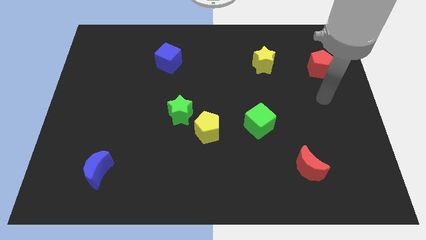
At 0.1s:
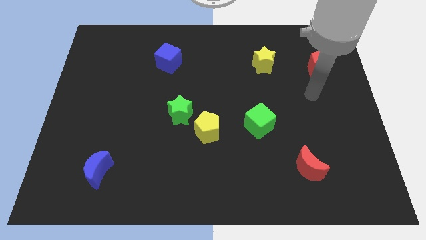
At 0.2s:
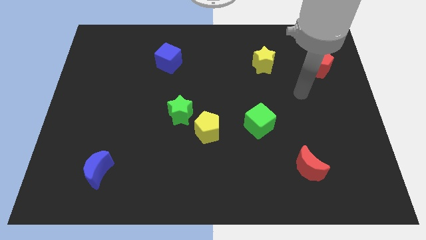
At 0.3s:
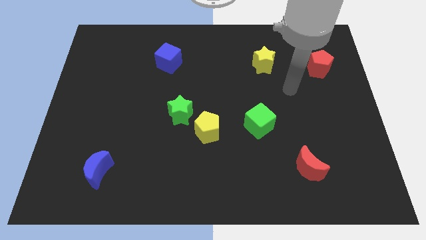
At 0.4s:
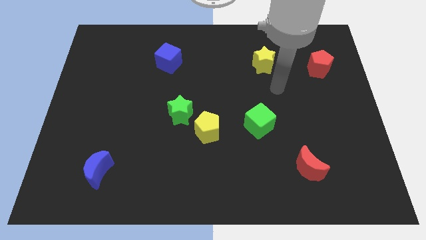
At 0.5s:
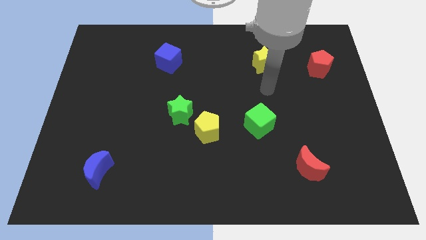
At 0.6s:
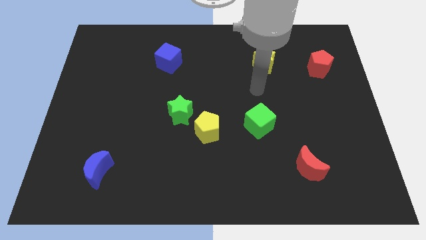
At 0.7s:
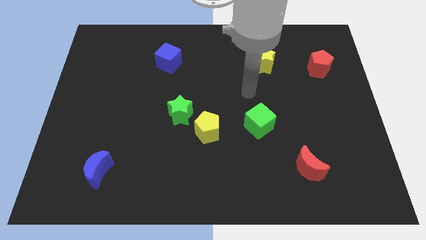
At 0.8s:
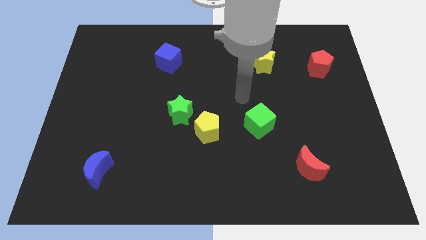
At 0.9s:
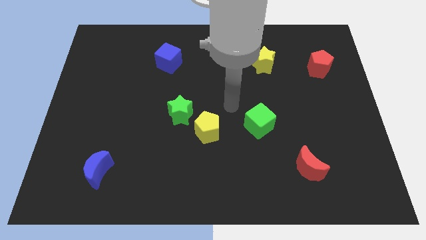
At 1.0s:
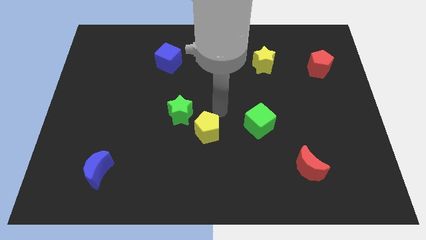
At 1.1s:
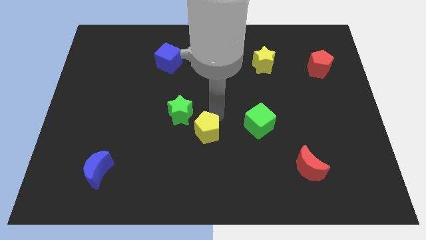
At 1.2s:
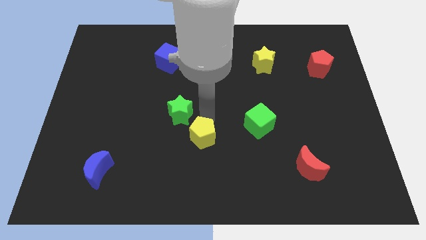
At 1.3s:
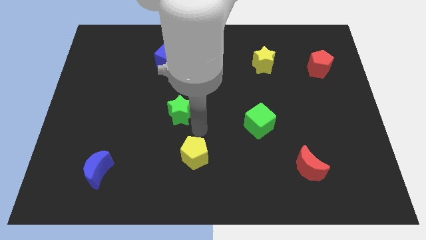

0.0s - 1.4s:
move the green star away from the yellow pentagon

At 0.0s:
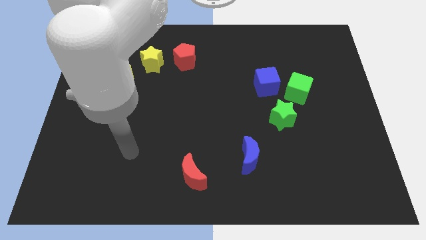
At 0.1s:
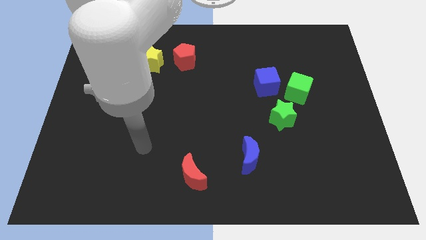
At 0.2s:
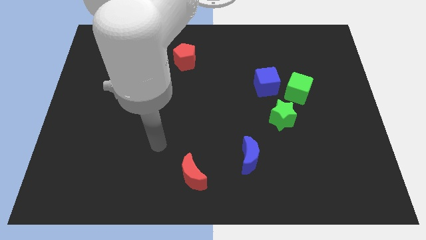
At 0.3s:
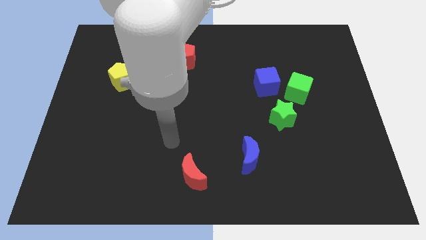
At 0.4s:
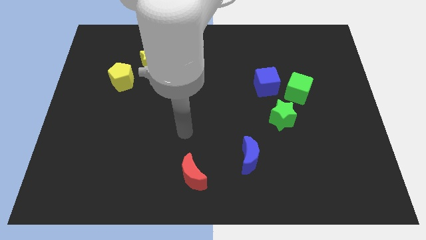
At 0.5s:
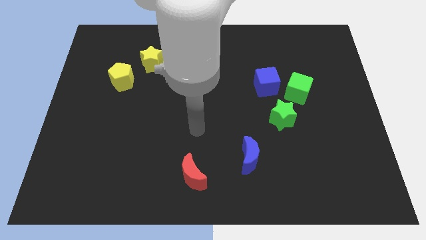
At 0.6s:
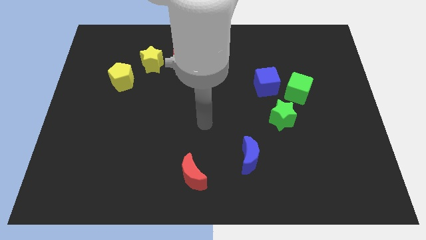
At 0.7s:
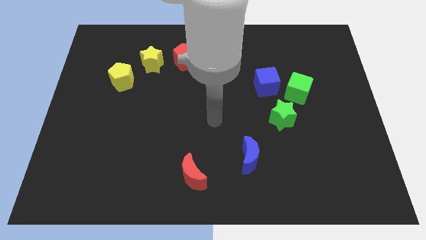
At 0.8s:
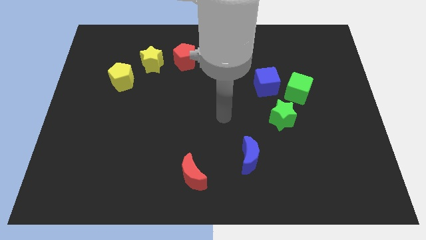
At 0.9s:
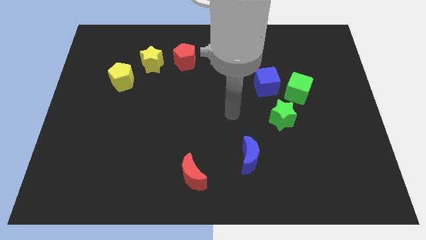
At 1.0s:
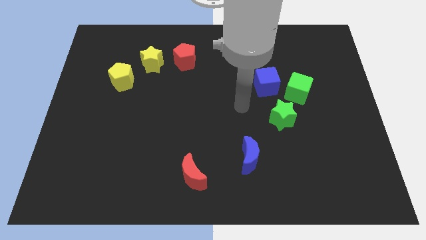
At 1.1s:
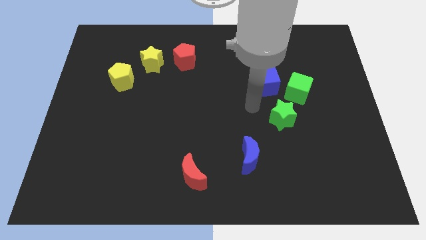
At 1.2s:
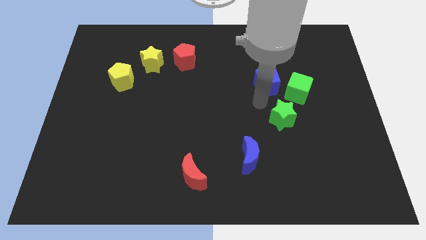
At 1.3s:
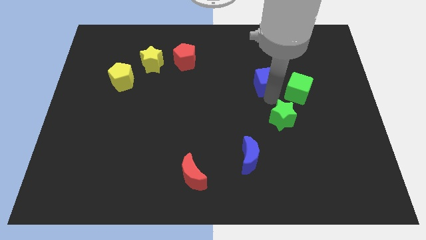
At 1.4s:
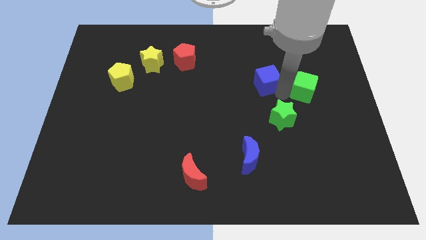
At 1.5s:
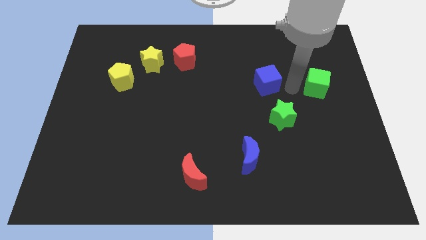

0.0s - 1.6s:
separate the blue cube from the green cube

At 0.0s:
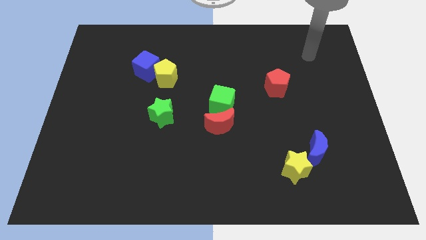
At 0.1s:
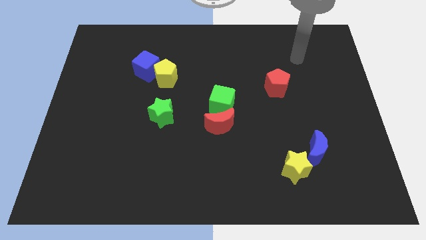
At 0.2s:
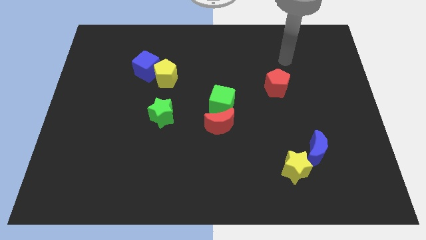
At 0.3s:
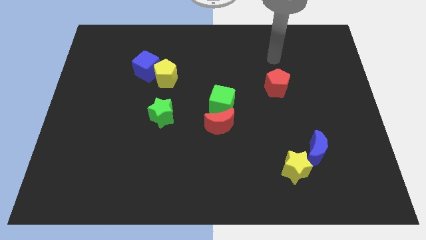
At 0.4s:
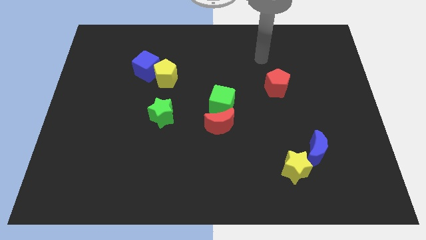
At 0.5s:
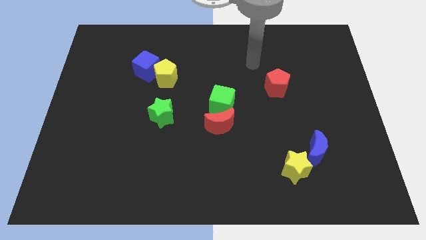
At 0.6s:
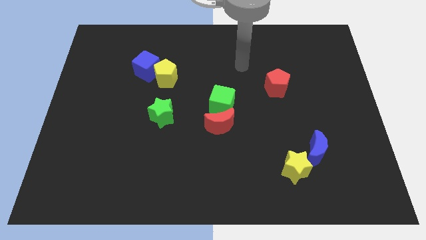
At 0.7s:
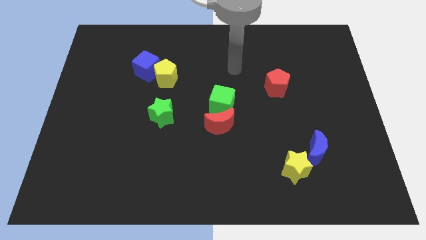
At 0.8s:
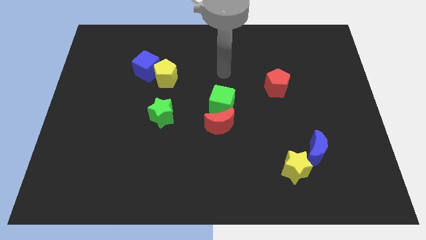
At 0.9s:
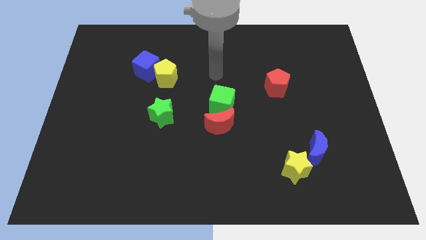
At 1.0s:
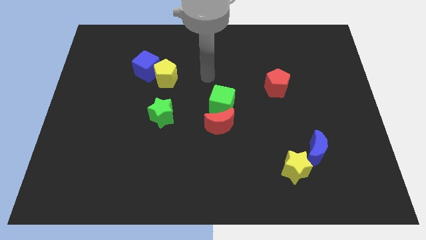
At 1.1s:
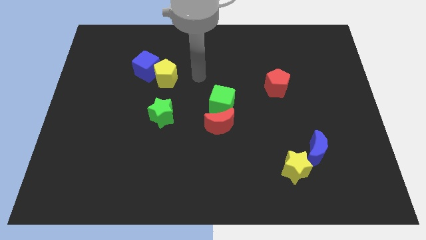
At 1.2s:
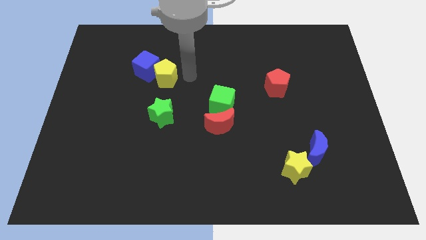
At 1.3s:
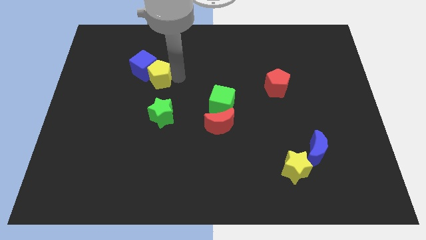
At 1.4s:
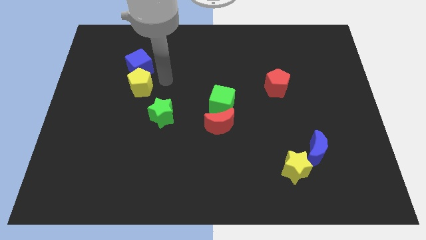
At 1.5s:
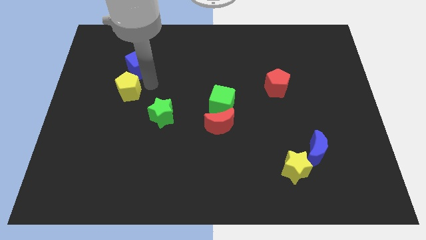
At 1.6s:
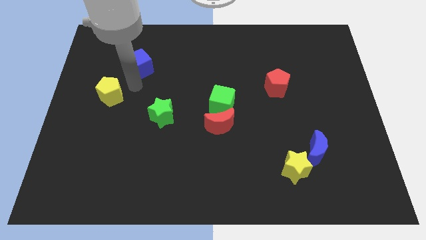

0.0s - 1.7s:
move the blue cube away from the yellow pentagon

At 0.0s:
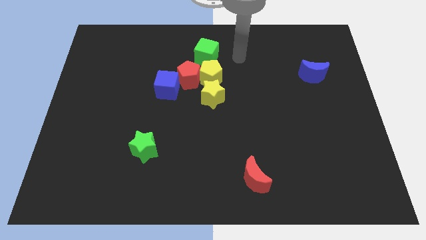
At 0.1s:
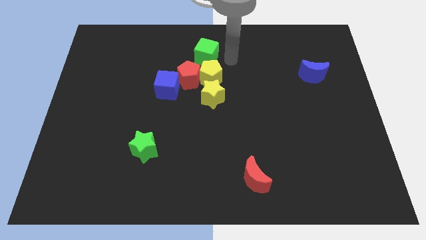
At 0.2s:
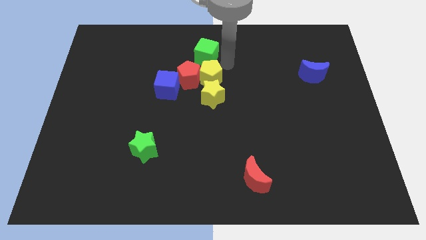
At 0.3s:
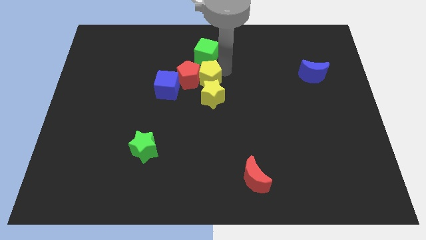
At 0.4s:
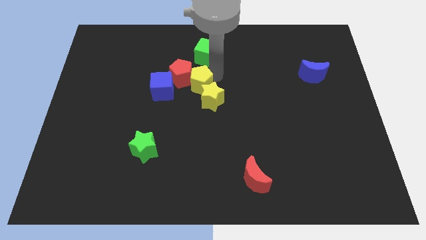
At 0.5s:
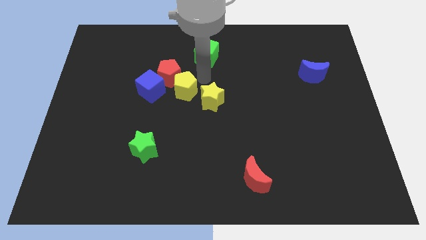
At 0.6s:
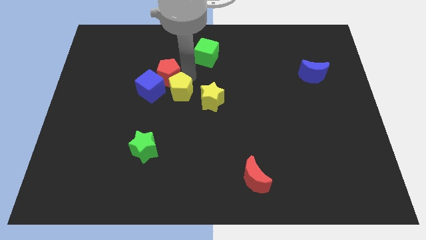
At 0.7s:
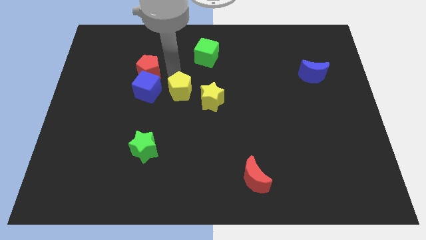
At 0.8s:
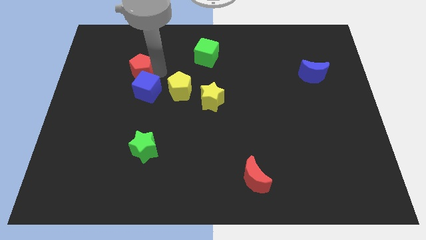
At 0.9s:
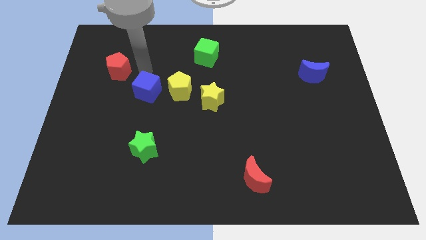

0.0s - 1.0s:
move the blue cube away from the red pentagon

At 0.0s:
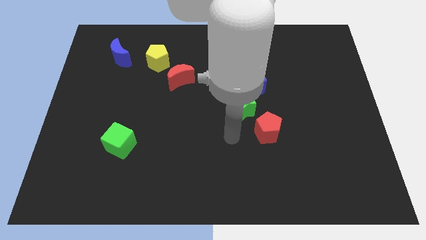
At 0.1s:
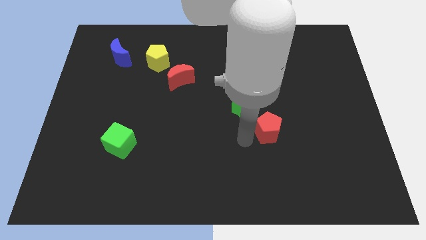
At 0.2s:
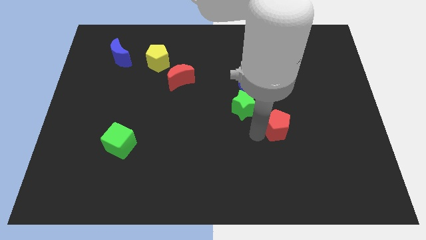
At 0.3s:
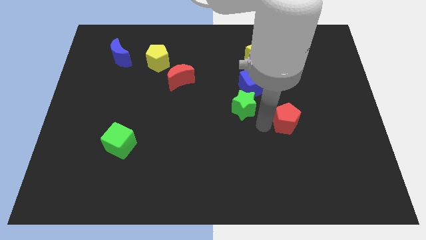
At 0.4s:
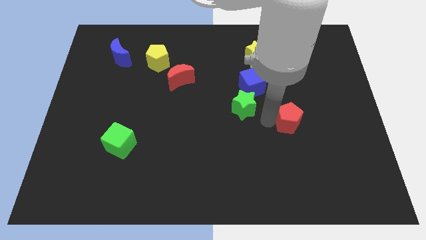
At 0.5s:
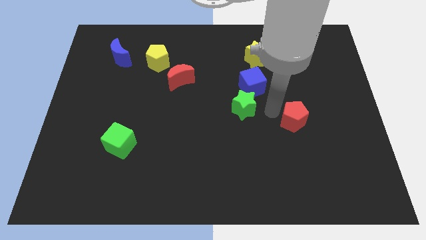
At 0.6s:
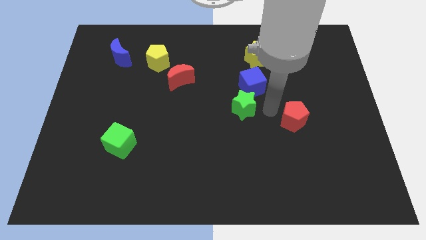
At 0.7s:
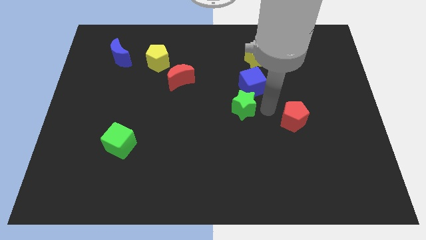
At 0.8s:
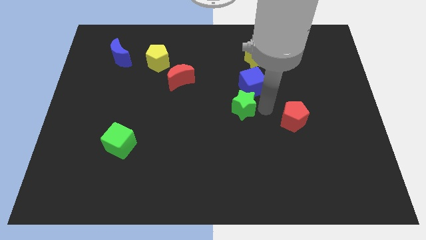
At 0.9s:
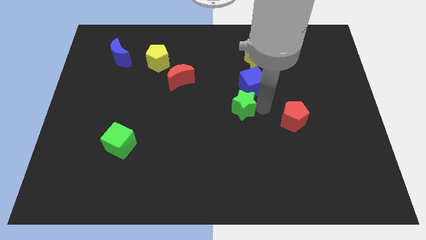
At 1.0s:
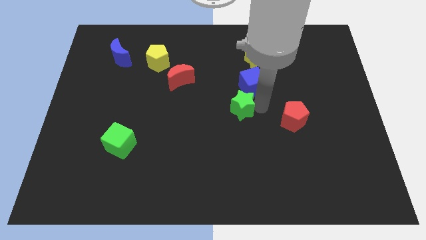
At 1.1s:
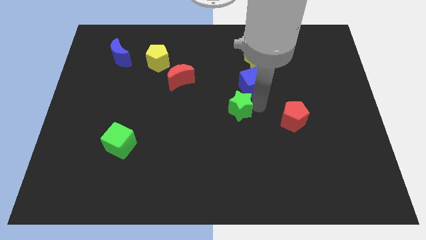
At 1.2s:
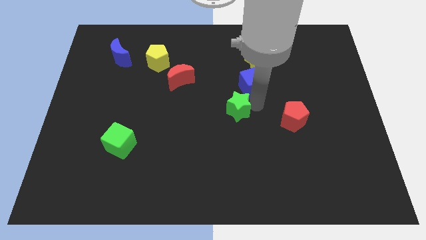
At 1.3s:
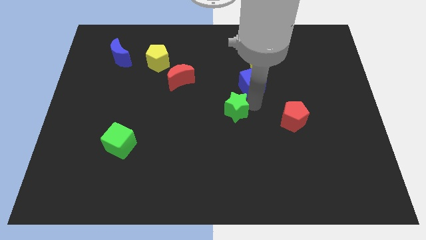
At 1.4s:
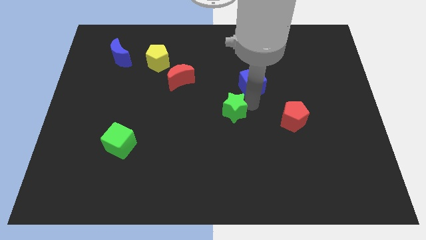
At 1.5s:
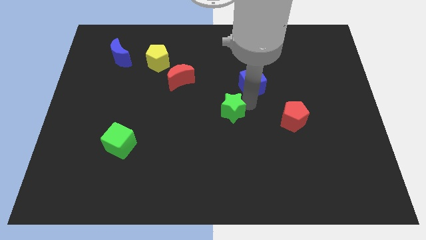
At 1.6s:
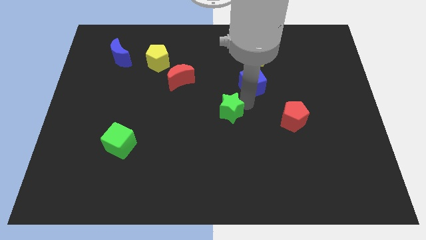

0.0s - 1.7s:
pull the green star apart from the blue cube and red pentagon

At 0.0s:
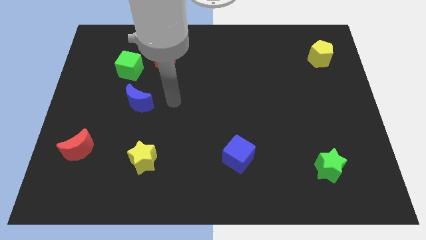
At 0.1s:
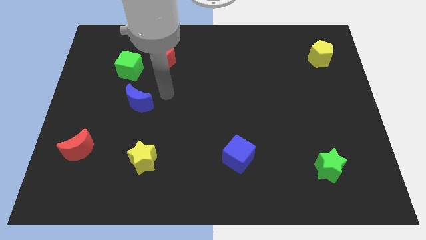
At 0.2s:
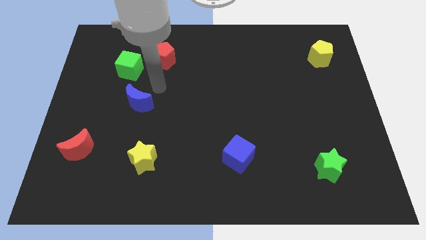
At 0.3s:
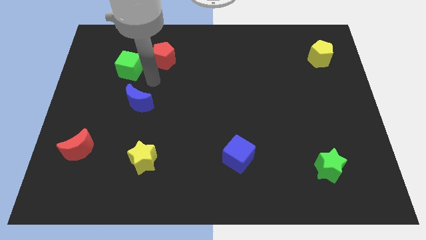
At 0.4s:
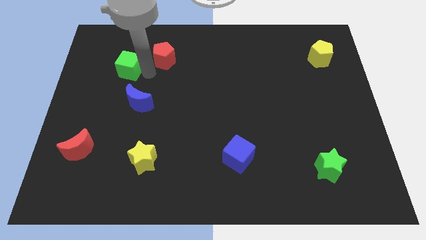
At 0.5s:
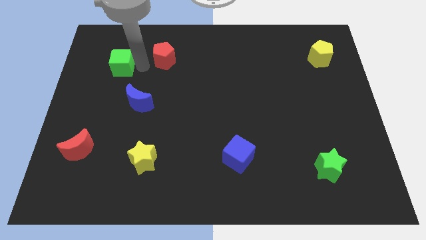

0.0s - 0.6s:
pull the red pentagon apart from the green cube

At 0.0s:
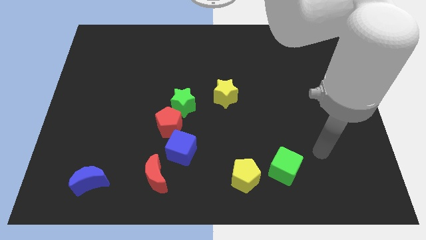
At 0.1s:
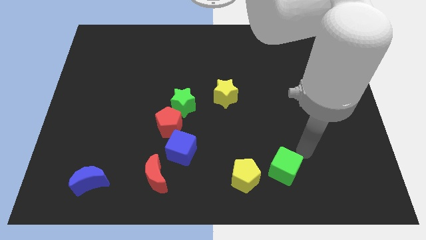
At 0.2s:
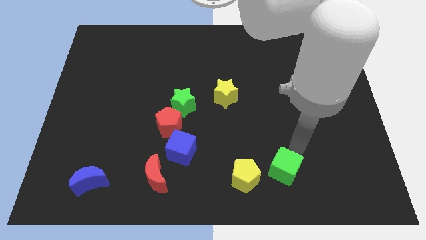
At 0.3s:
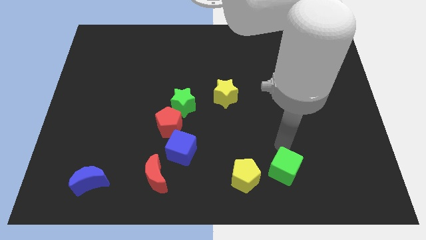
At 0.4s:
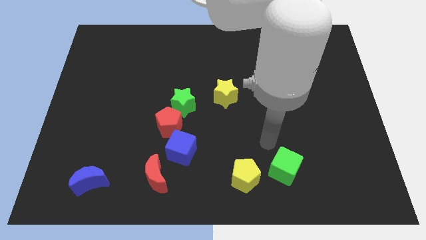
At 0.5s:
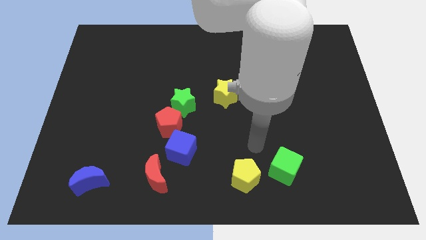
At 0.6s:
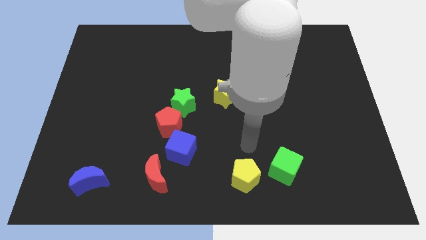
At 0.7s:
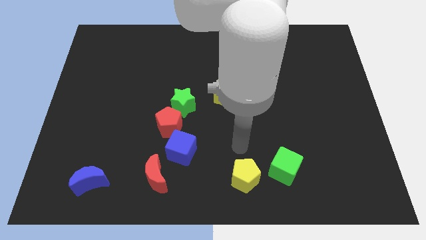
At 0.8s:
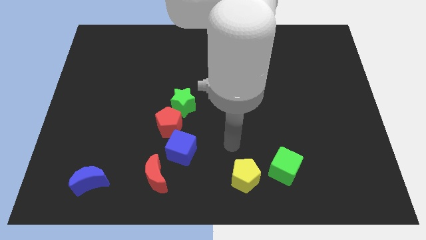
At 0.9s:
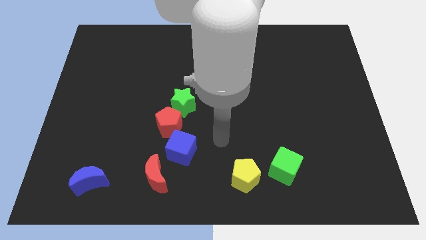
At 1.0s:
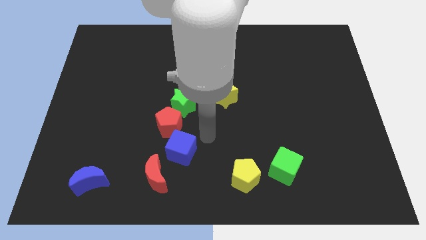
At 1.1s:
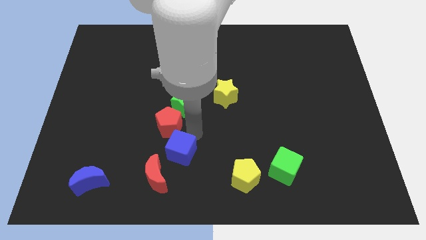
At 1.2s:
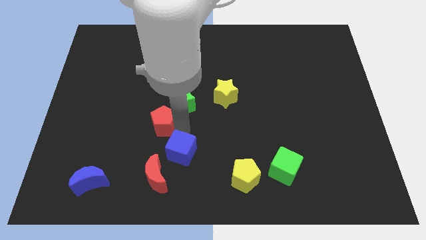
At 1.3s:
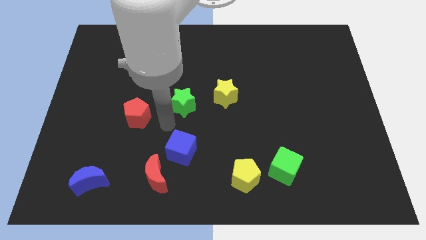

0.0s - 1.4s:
move the green star away from the red pentagon
